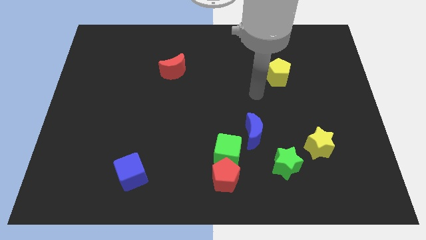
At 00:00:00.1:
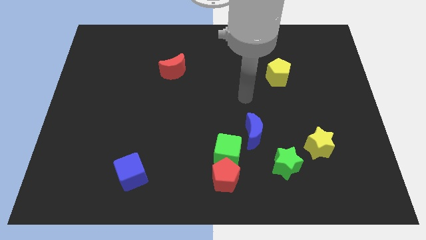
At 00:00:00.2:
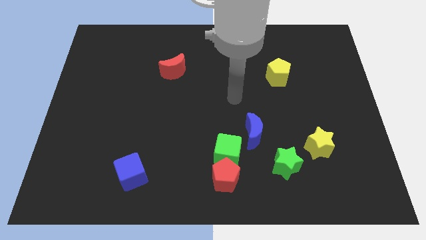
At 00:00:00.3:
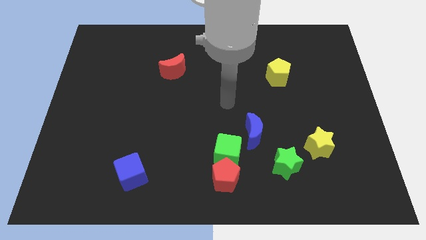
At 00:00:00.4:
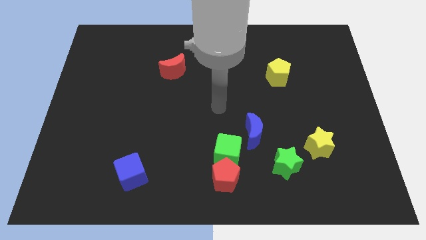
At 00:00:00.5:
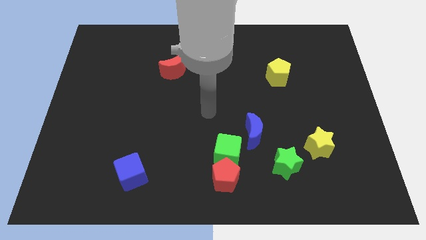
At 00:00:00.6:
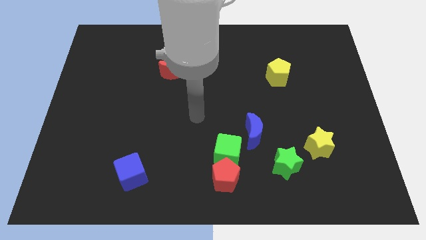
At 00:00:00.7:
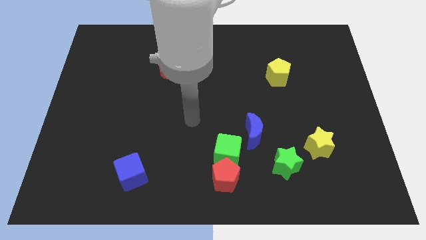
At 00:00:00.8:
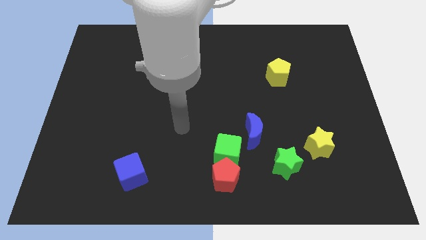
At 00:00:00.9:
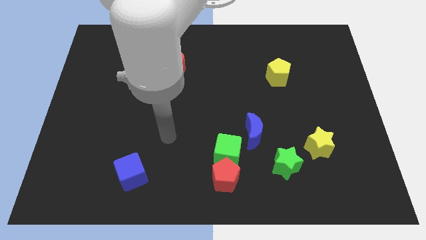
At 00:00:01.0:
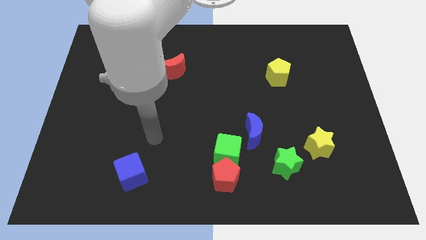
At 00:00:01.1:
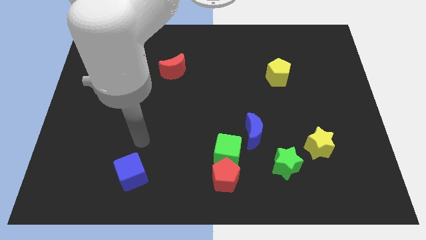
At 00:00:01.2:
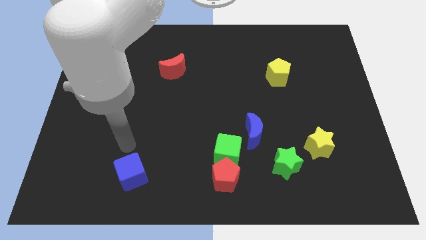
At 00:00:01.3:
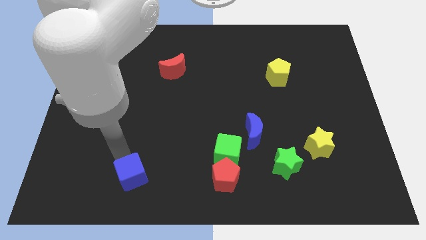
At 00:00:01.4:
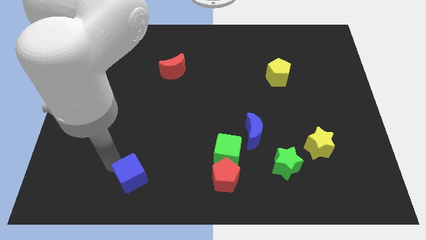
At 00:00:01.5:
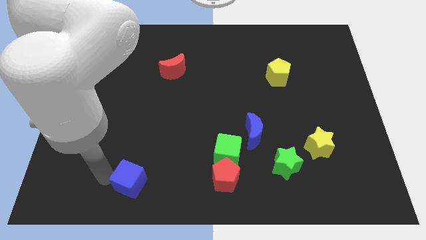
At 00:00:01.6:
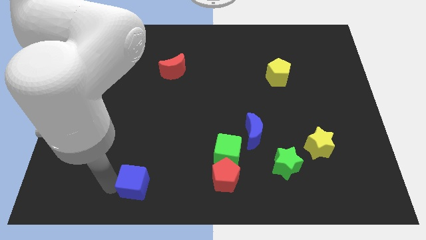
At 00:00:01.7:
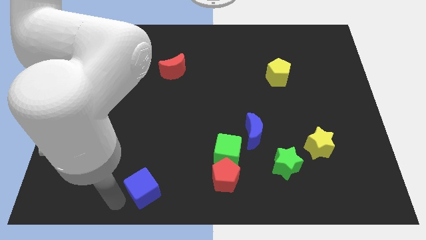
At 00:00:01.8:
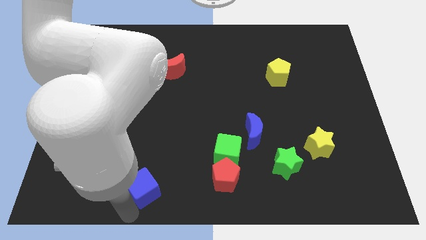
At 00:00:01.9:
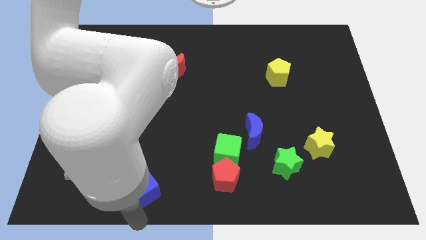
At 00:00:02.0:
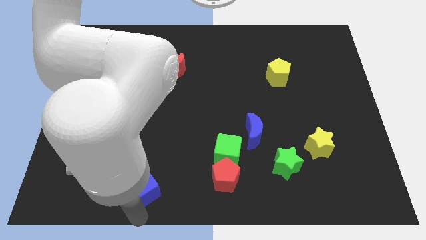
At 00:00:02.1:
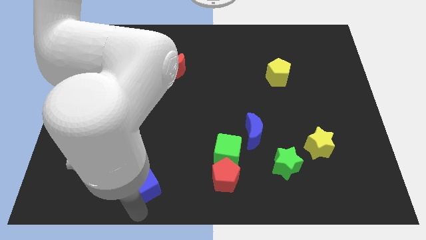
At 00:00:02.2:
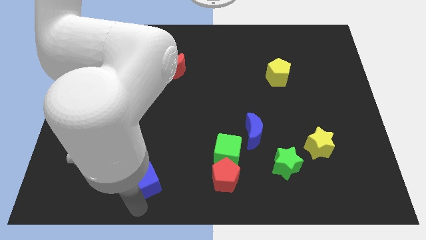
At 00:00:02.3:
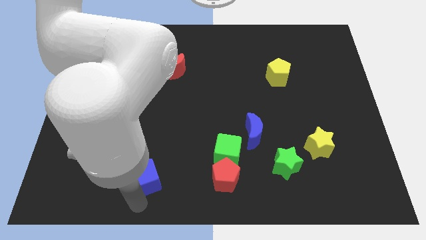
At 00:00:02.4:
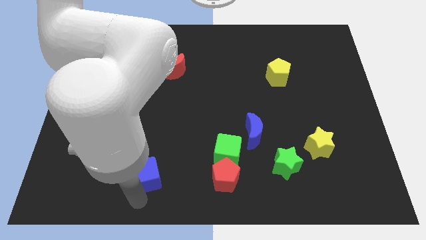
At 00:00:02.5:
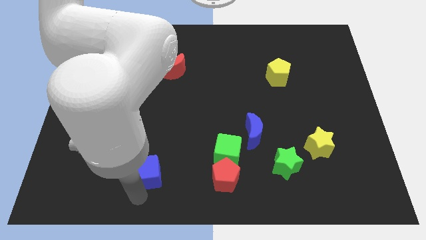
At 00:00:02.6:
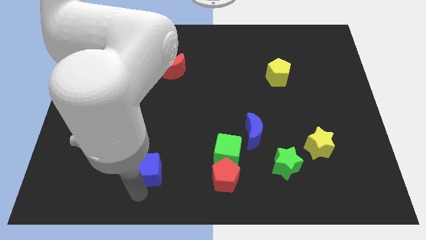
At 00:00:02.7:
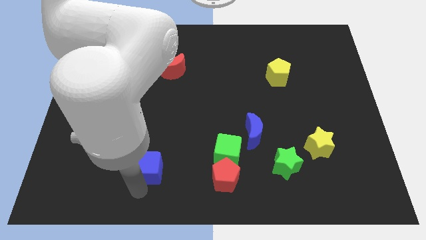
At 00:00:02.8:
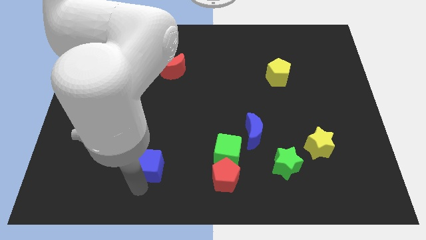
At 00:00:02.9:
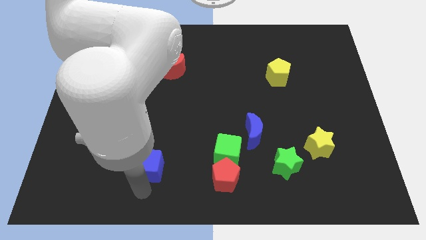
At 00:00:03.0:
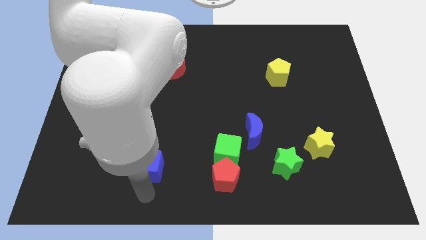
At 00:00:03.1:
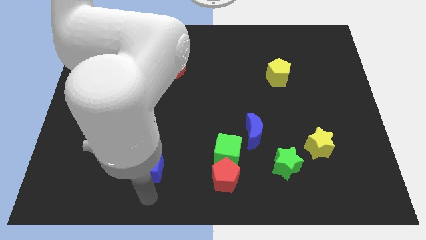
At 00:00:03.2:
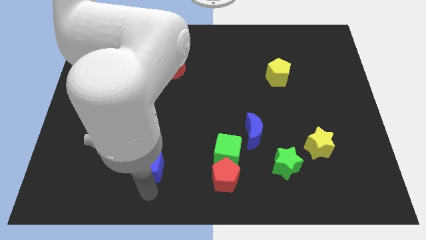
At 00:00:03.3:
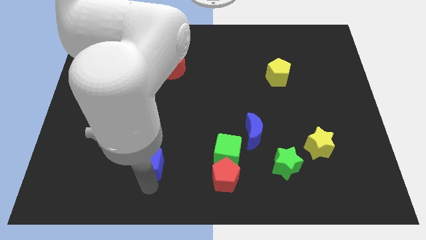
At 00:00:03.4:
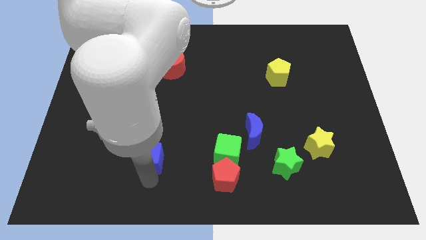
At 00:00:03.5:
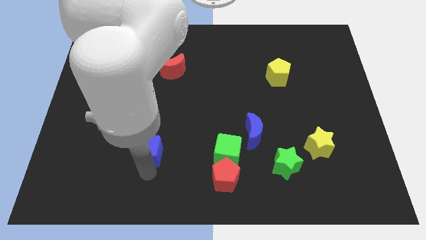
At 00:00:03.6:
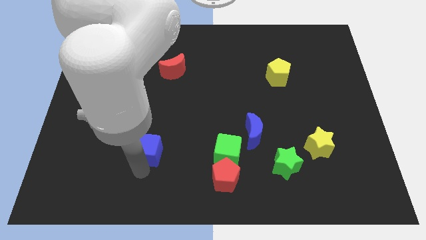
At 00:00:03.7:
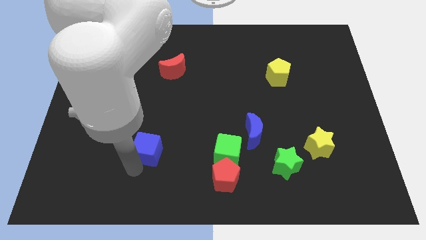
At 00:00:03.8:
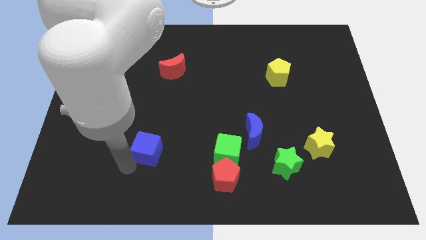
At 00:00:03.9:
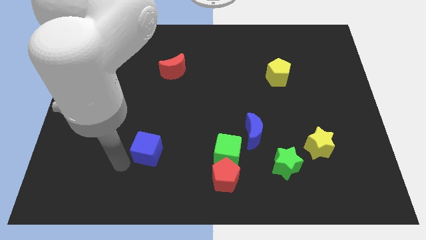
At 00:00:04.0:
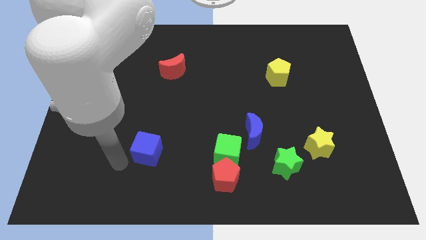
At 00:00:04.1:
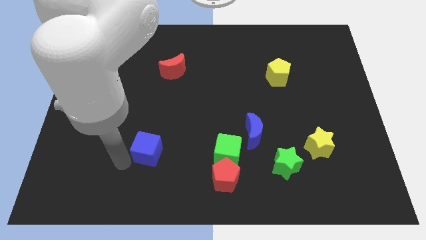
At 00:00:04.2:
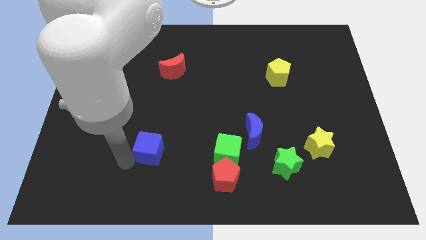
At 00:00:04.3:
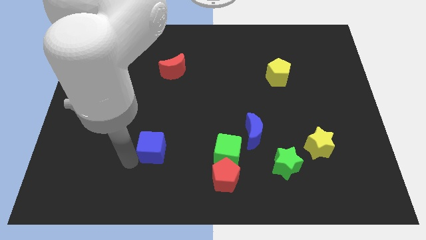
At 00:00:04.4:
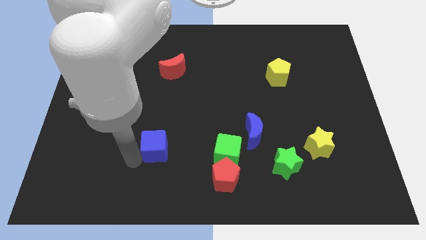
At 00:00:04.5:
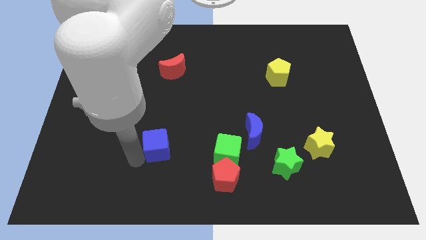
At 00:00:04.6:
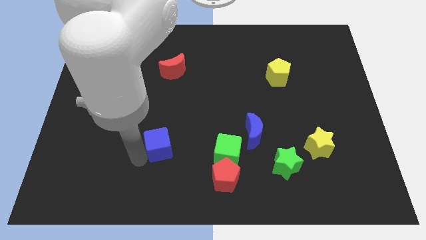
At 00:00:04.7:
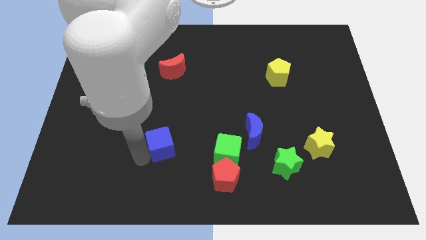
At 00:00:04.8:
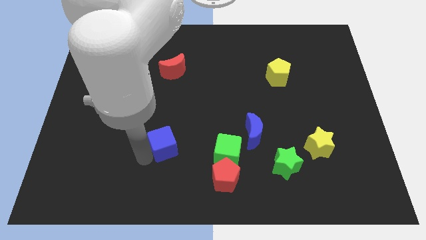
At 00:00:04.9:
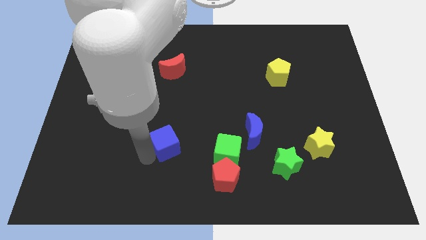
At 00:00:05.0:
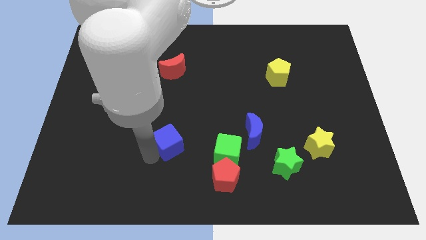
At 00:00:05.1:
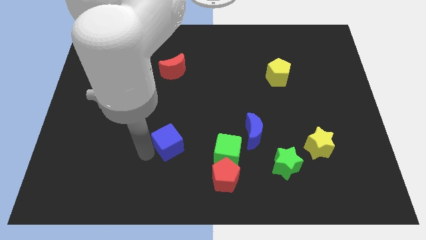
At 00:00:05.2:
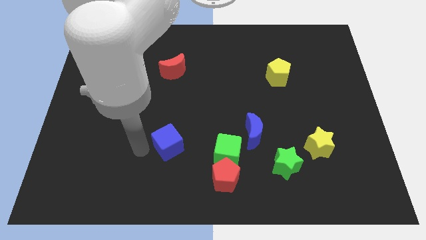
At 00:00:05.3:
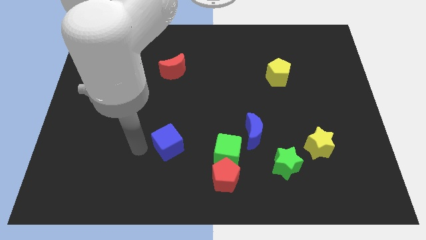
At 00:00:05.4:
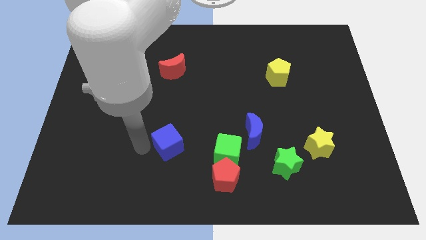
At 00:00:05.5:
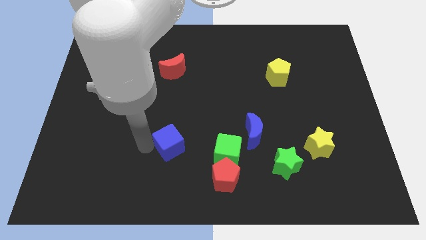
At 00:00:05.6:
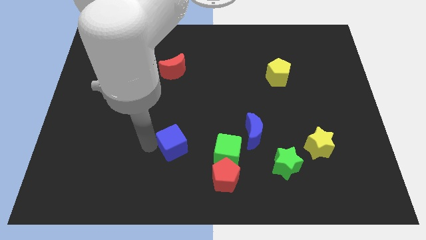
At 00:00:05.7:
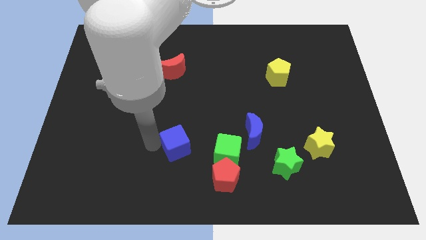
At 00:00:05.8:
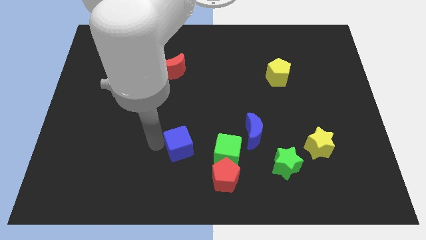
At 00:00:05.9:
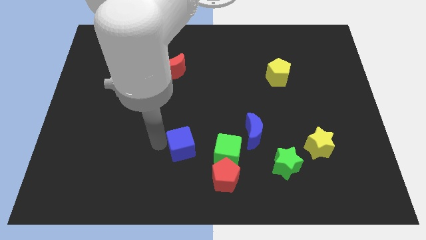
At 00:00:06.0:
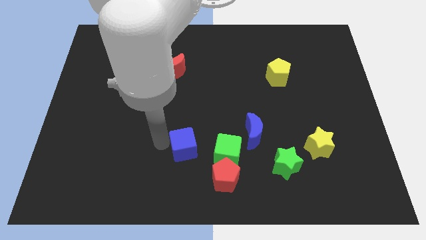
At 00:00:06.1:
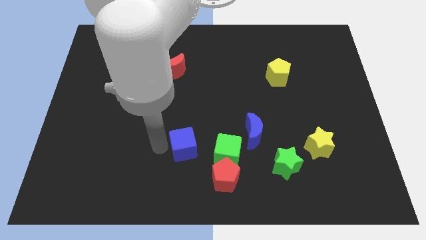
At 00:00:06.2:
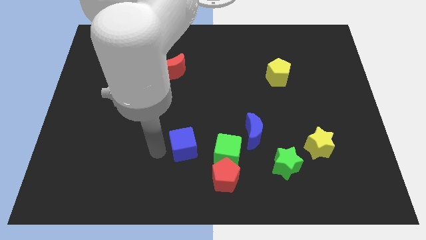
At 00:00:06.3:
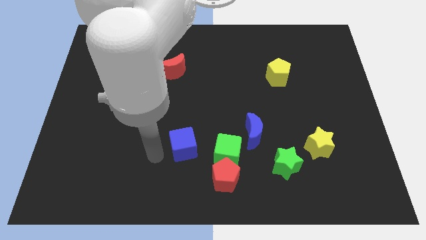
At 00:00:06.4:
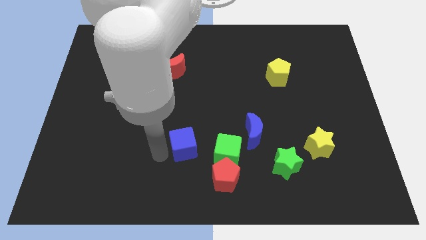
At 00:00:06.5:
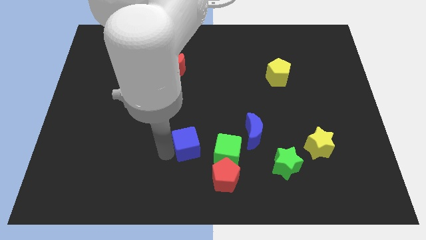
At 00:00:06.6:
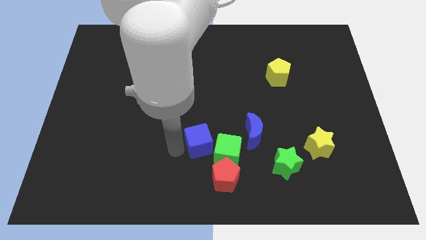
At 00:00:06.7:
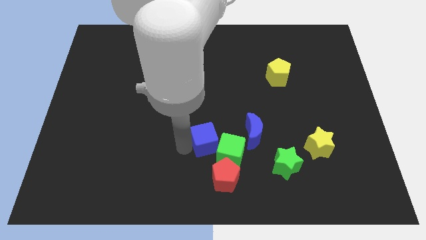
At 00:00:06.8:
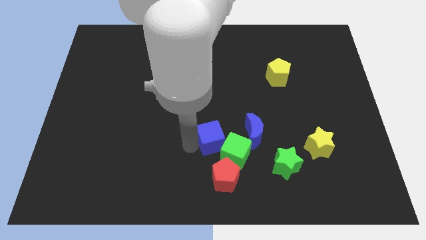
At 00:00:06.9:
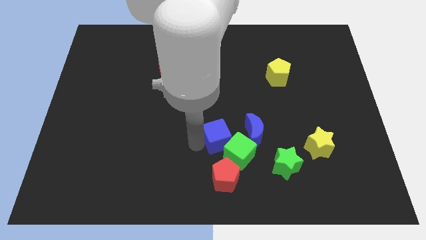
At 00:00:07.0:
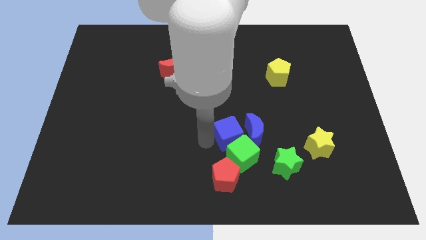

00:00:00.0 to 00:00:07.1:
slide the blue cube close to the blue moon
